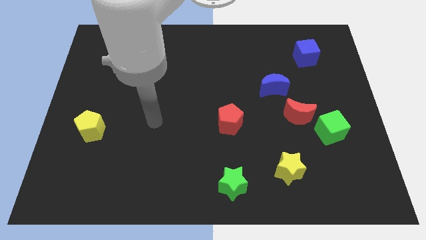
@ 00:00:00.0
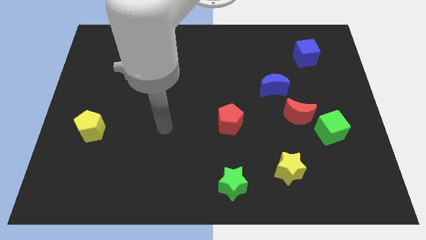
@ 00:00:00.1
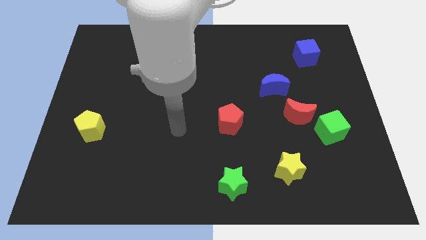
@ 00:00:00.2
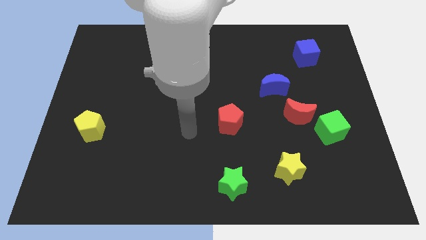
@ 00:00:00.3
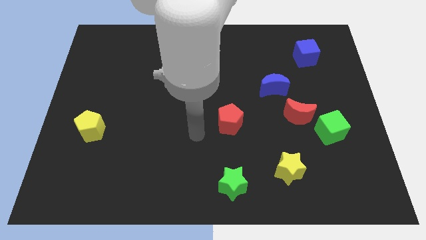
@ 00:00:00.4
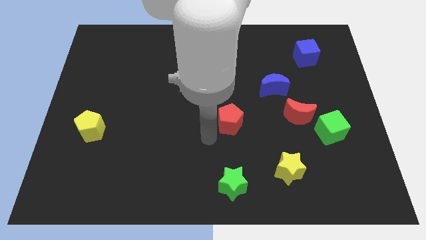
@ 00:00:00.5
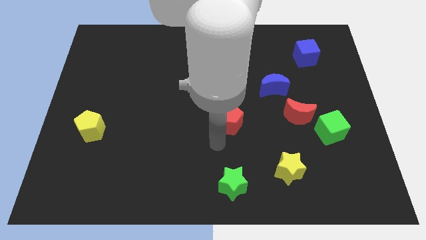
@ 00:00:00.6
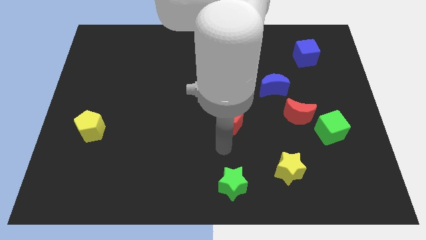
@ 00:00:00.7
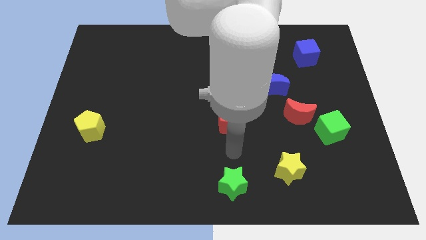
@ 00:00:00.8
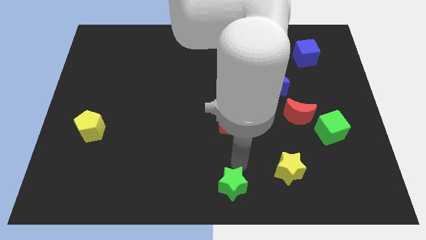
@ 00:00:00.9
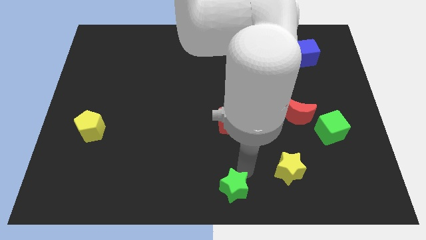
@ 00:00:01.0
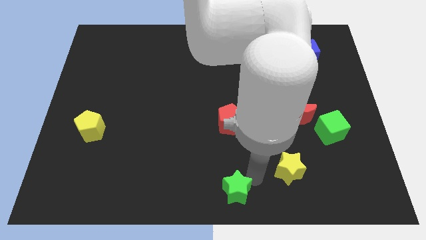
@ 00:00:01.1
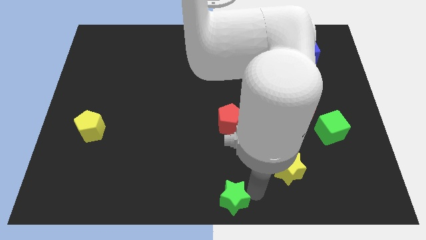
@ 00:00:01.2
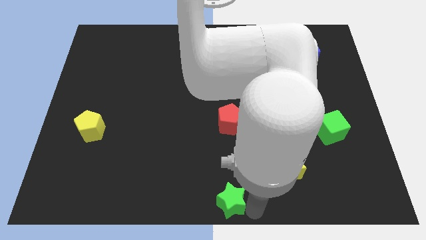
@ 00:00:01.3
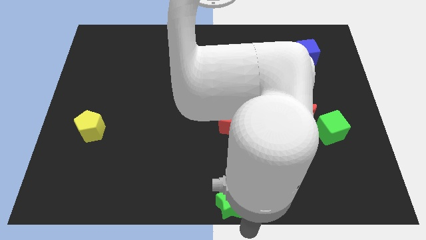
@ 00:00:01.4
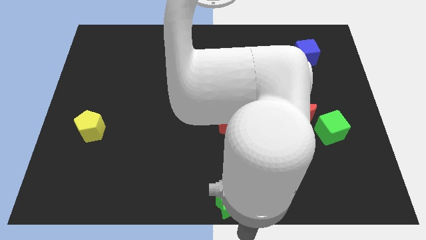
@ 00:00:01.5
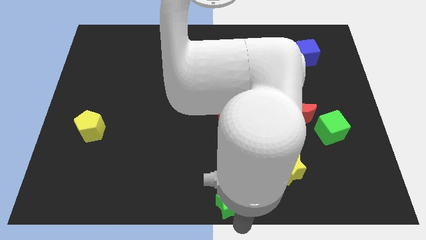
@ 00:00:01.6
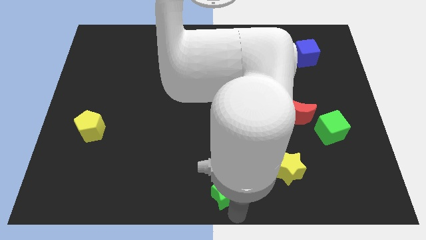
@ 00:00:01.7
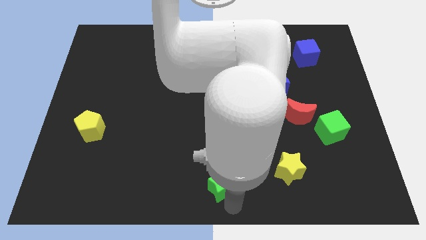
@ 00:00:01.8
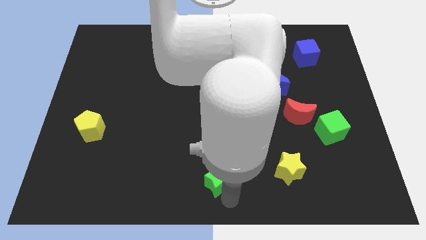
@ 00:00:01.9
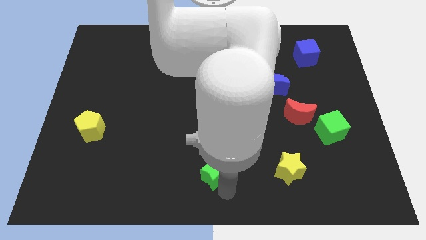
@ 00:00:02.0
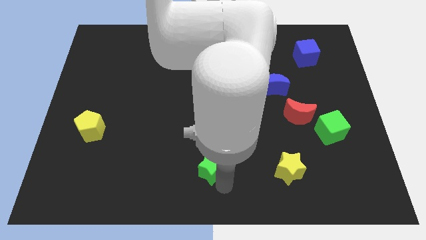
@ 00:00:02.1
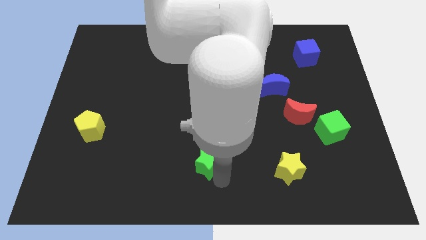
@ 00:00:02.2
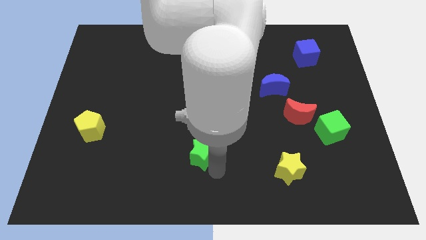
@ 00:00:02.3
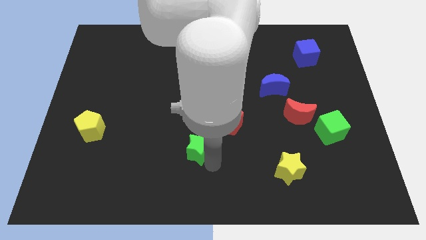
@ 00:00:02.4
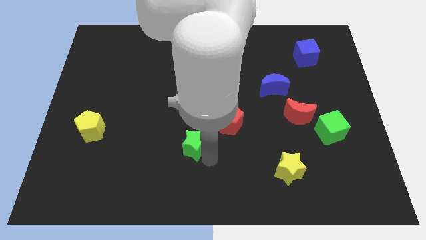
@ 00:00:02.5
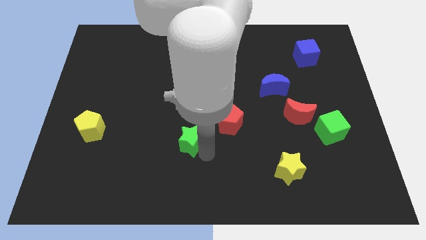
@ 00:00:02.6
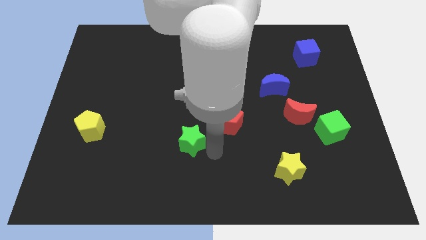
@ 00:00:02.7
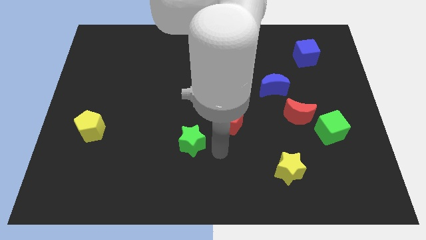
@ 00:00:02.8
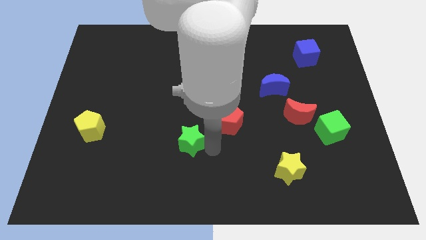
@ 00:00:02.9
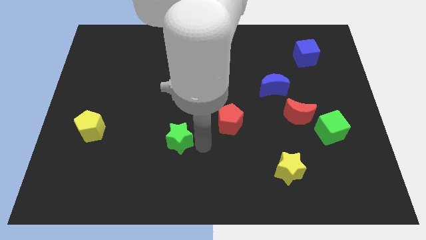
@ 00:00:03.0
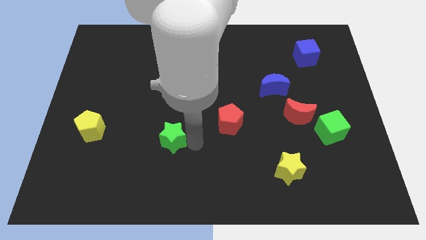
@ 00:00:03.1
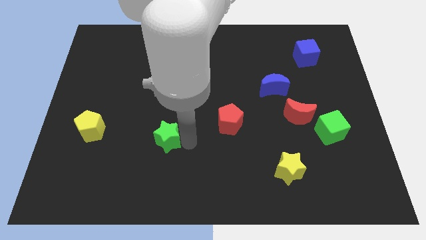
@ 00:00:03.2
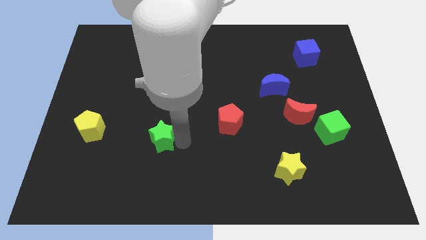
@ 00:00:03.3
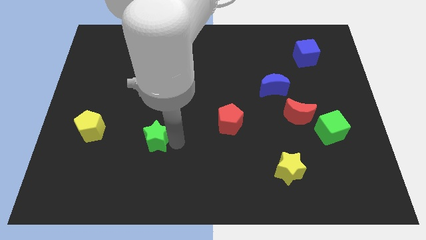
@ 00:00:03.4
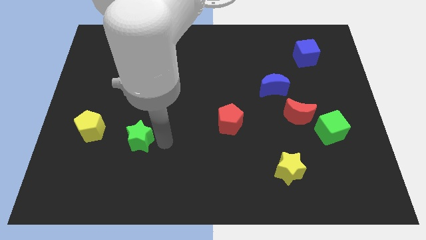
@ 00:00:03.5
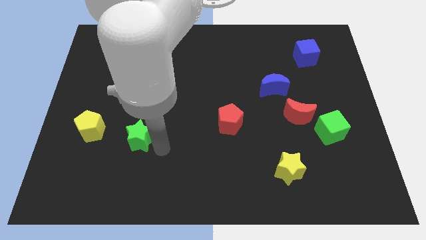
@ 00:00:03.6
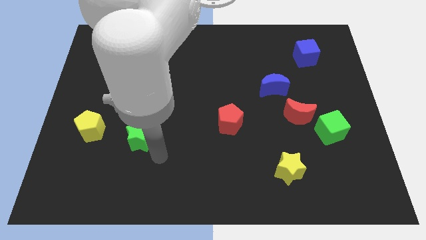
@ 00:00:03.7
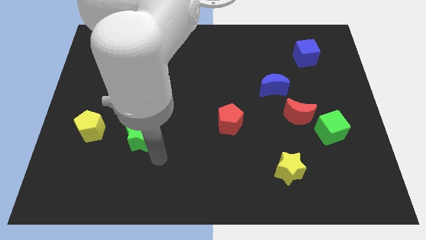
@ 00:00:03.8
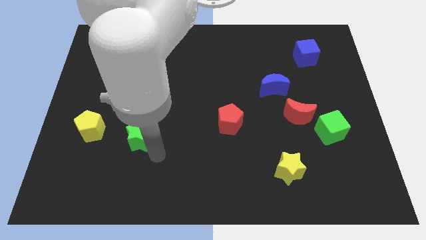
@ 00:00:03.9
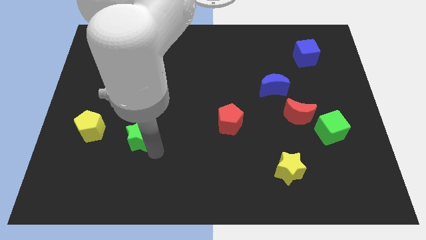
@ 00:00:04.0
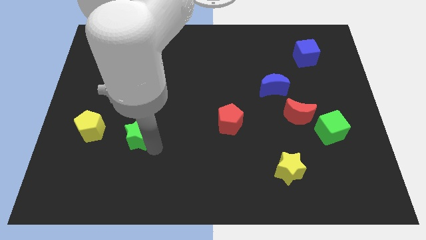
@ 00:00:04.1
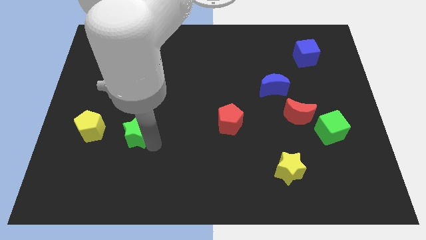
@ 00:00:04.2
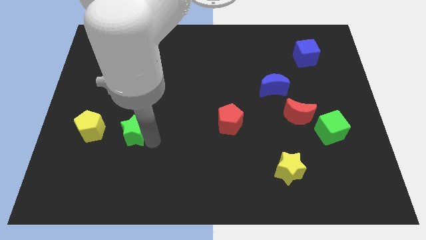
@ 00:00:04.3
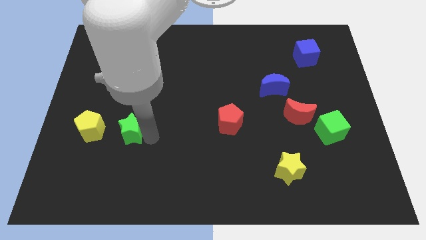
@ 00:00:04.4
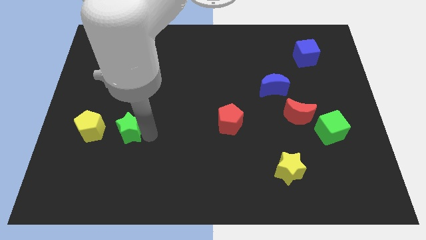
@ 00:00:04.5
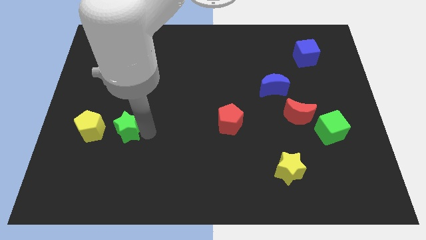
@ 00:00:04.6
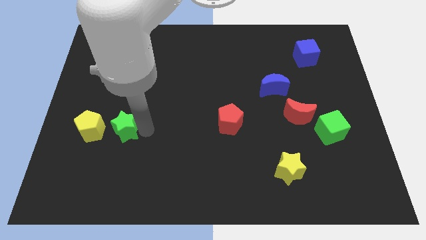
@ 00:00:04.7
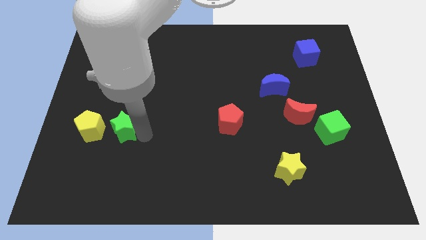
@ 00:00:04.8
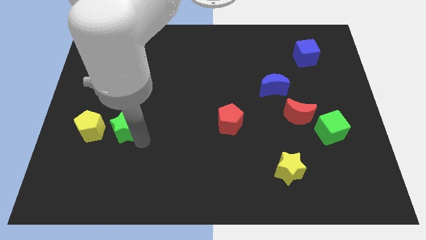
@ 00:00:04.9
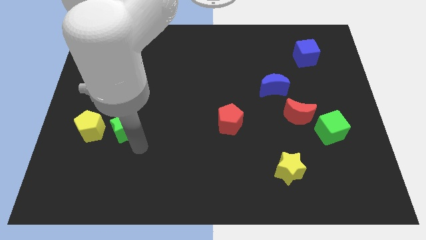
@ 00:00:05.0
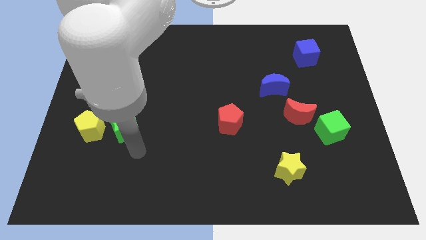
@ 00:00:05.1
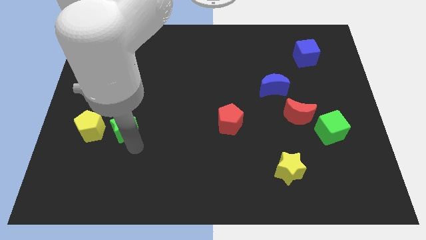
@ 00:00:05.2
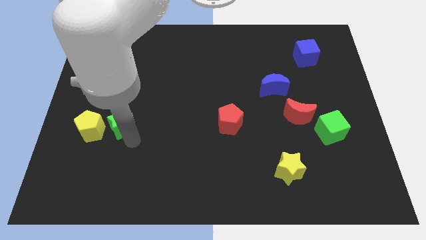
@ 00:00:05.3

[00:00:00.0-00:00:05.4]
move the green star to the top right of the yellow pentagon

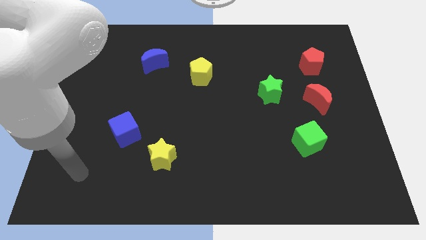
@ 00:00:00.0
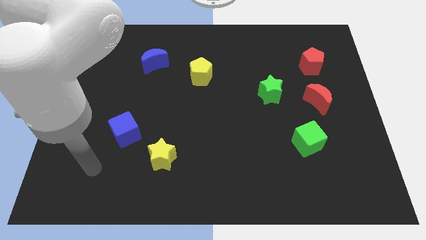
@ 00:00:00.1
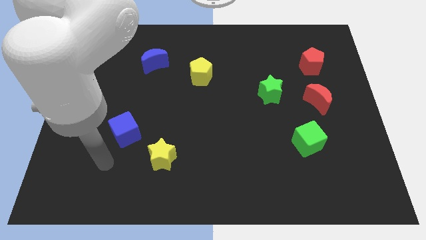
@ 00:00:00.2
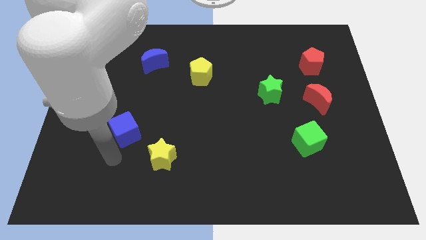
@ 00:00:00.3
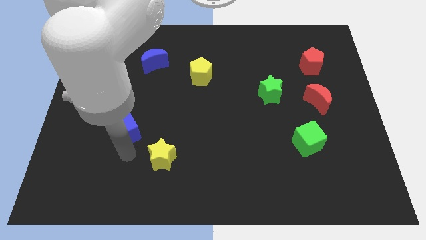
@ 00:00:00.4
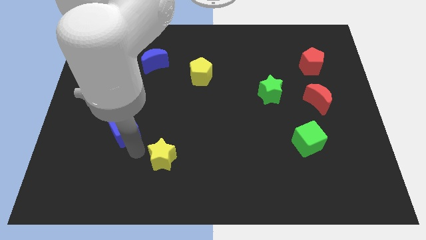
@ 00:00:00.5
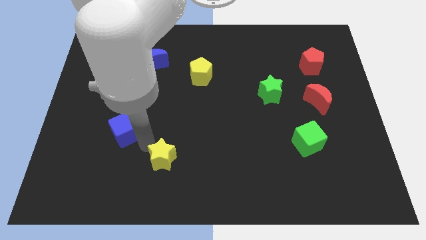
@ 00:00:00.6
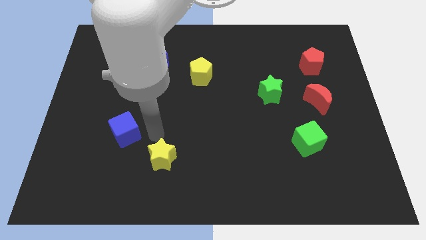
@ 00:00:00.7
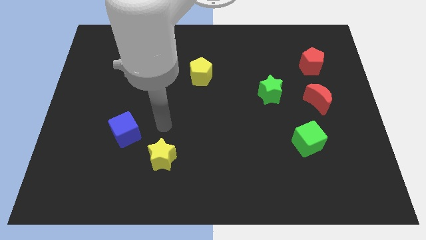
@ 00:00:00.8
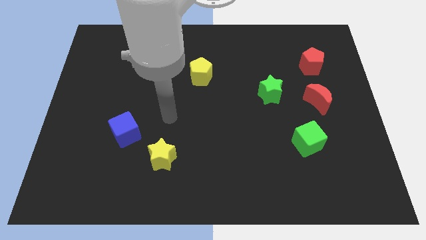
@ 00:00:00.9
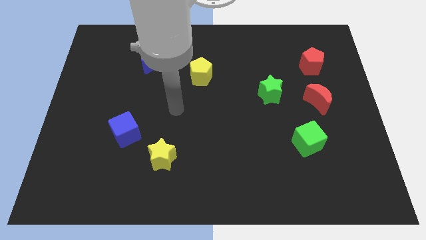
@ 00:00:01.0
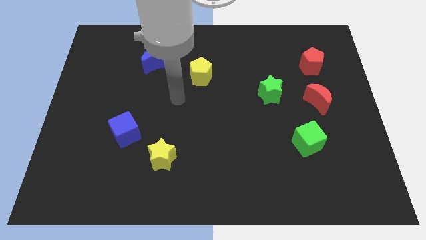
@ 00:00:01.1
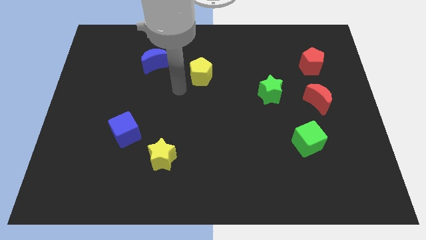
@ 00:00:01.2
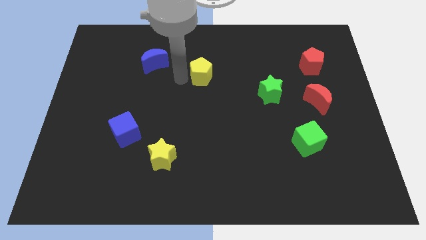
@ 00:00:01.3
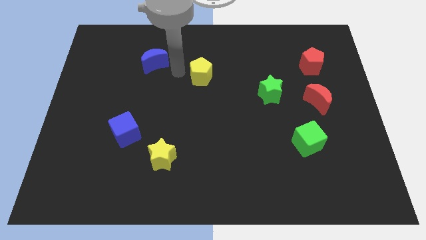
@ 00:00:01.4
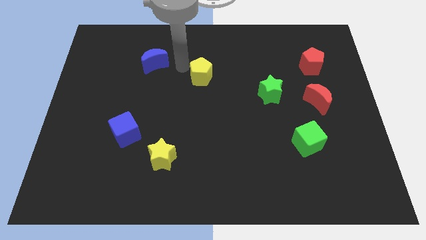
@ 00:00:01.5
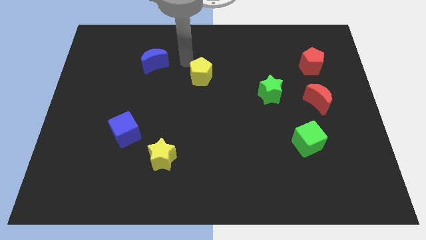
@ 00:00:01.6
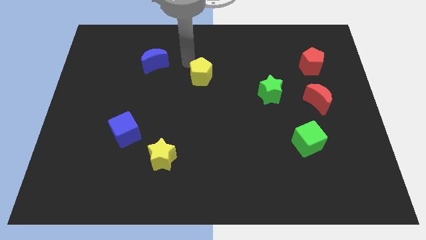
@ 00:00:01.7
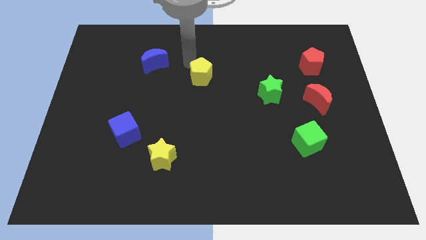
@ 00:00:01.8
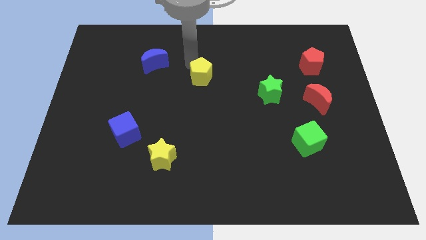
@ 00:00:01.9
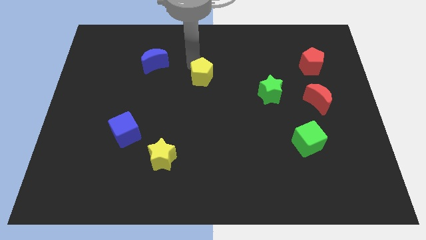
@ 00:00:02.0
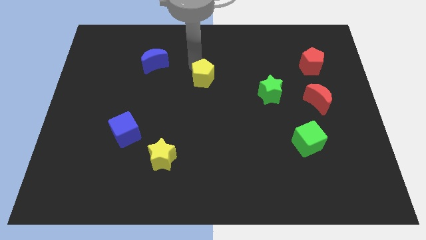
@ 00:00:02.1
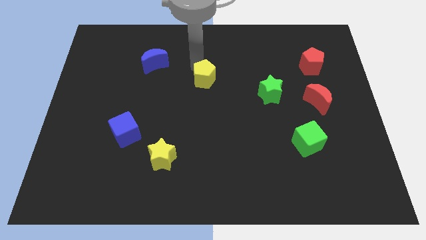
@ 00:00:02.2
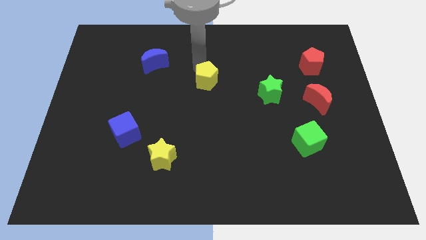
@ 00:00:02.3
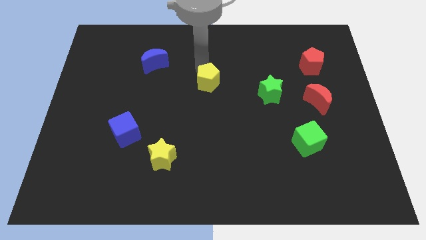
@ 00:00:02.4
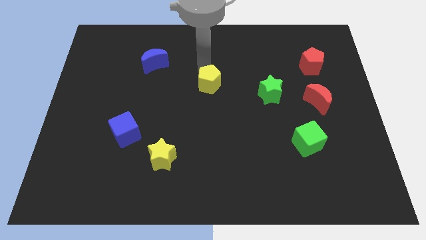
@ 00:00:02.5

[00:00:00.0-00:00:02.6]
push the yellow pentagon just left of the green star
